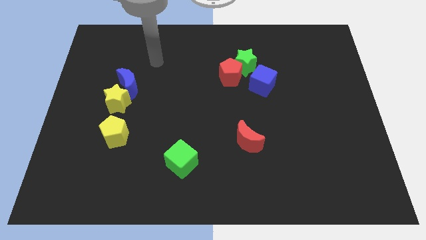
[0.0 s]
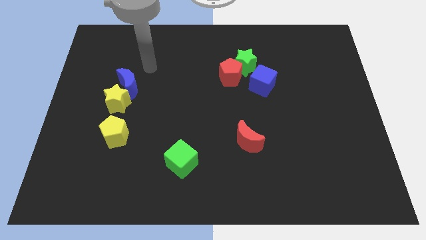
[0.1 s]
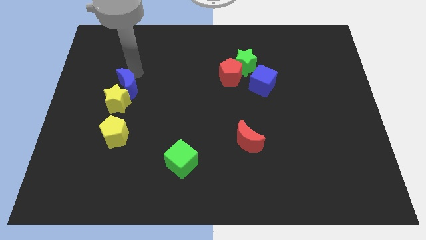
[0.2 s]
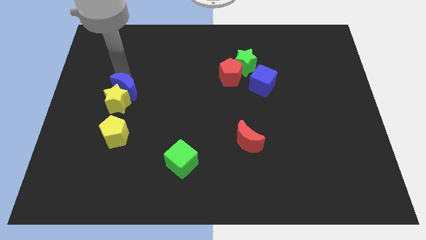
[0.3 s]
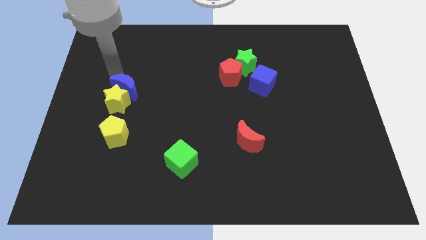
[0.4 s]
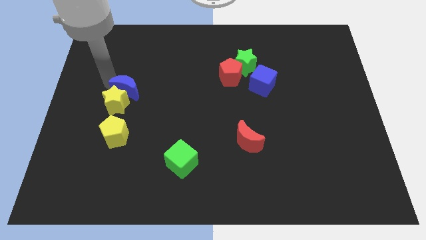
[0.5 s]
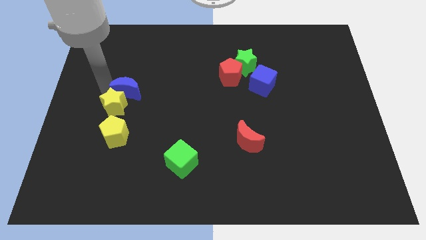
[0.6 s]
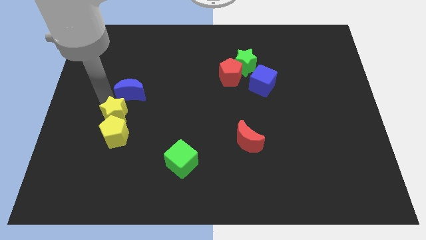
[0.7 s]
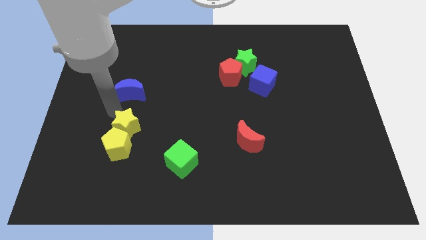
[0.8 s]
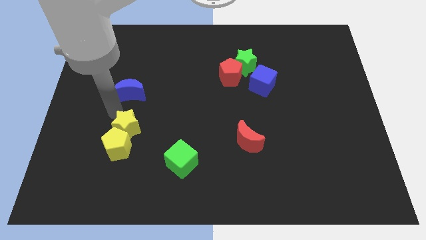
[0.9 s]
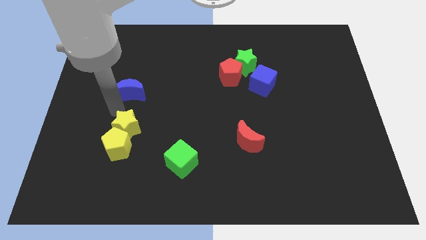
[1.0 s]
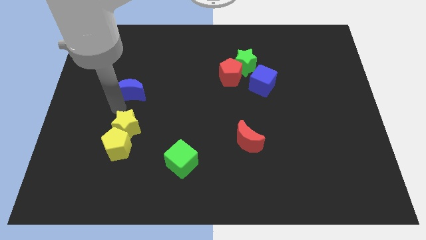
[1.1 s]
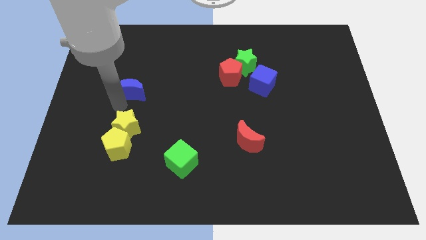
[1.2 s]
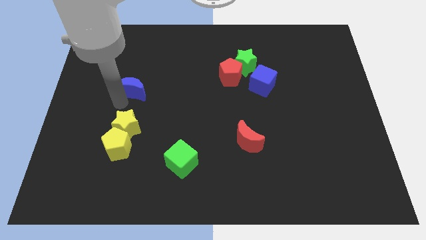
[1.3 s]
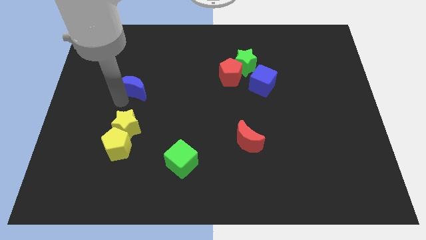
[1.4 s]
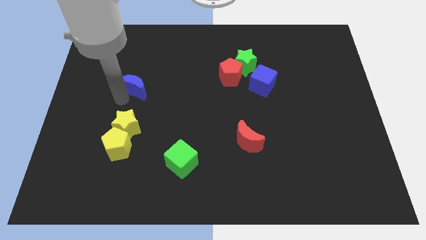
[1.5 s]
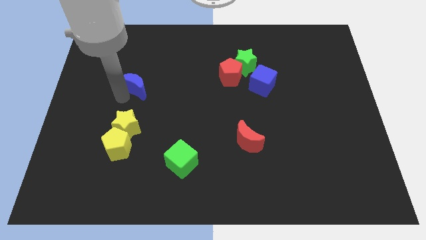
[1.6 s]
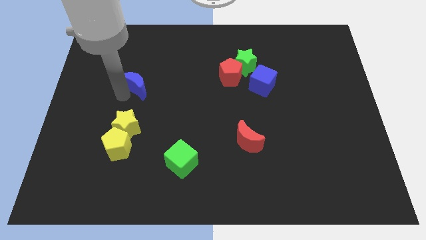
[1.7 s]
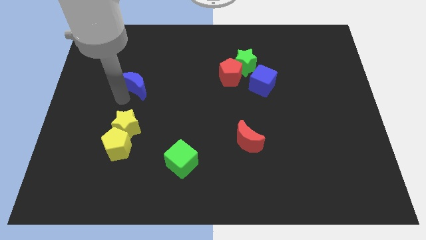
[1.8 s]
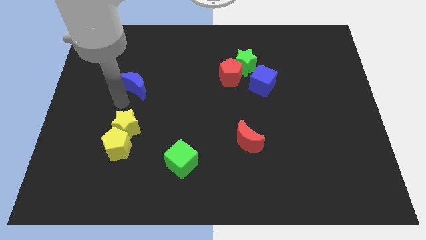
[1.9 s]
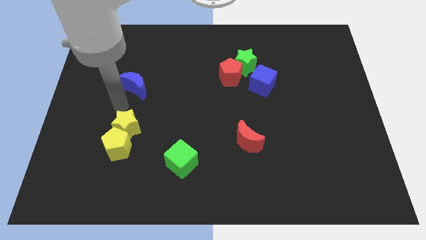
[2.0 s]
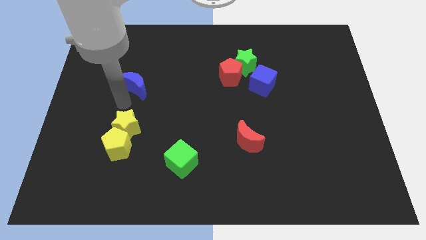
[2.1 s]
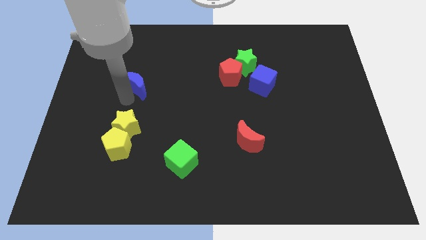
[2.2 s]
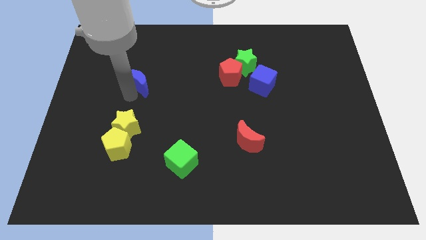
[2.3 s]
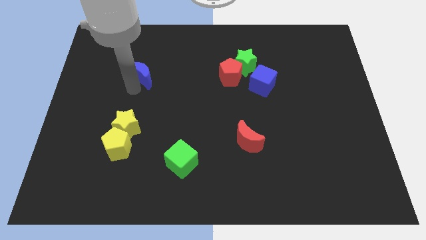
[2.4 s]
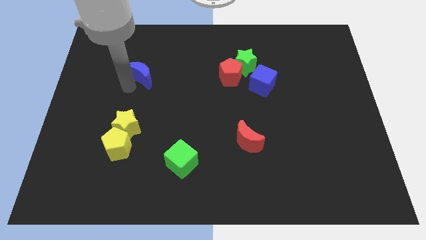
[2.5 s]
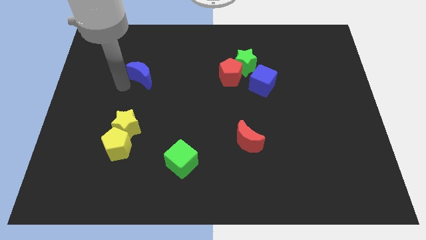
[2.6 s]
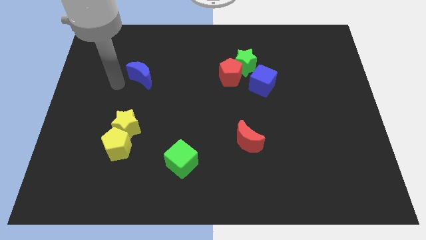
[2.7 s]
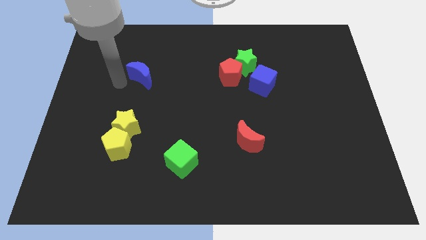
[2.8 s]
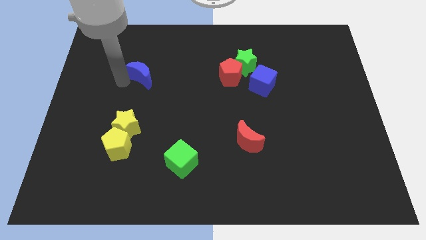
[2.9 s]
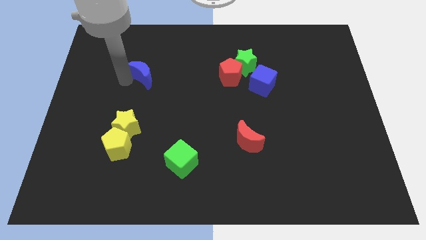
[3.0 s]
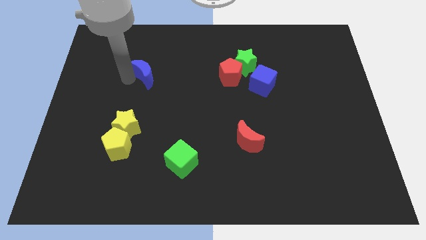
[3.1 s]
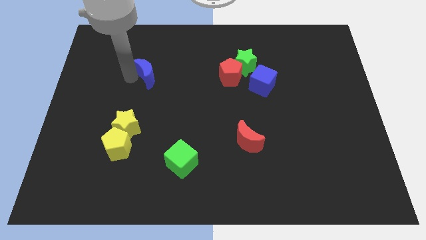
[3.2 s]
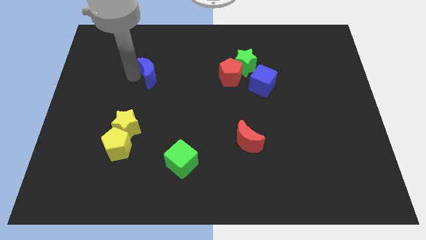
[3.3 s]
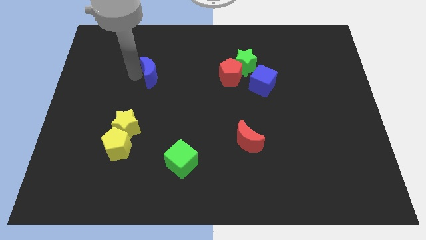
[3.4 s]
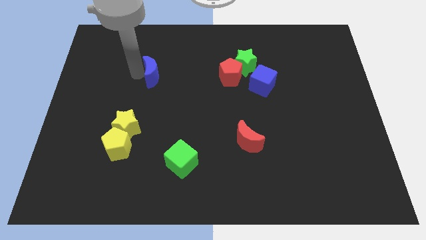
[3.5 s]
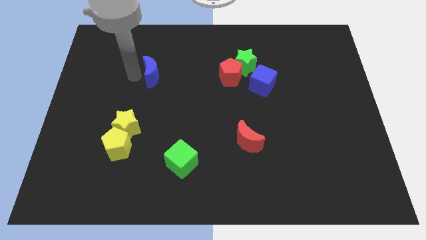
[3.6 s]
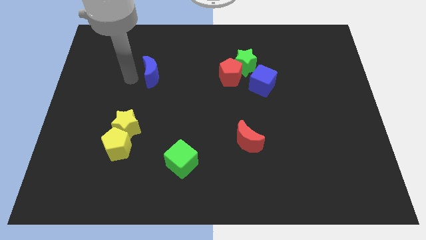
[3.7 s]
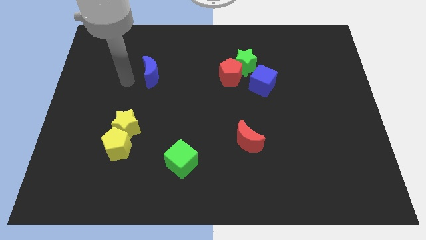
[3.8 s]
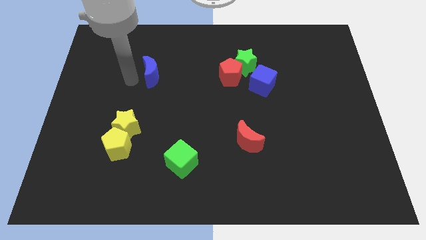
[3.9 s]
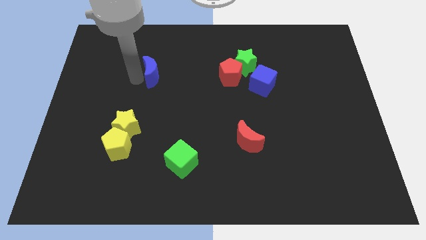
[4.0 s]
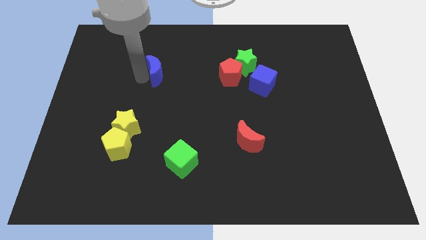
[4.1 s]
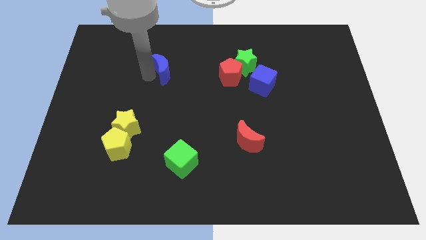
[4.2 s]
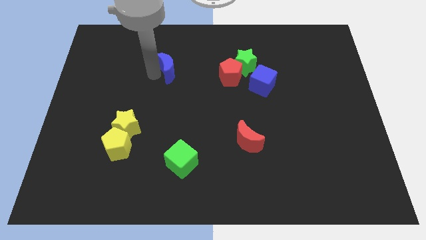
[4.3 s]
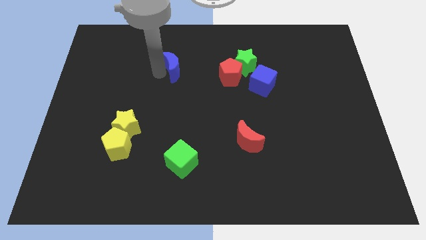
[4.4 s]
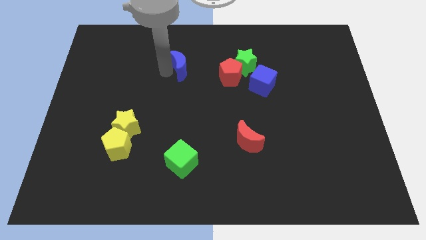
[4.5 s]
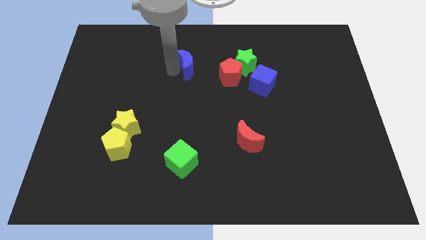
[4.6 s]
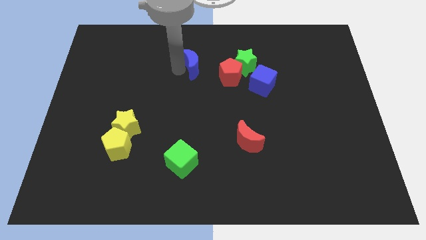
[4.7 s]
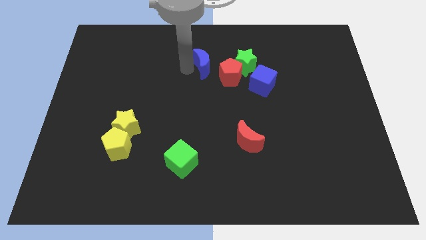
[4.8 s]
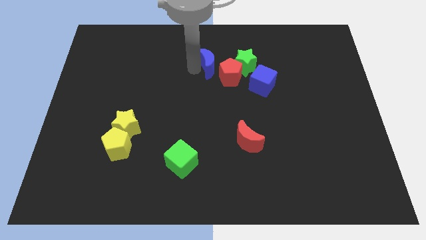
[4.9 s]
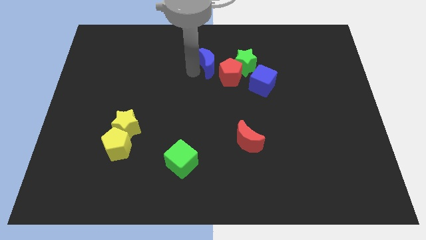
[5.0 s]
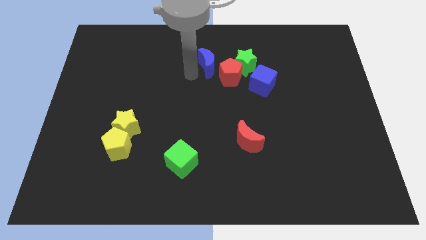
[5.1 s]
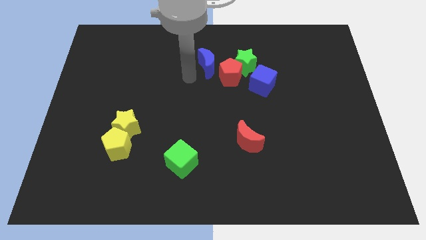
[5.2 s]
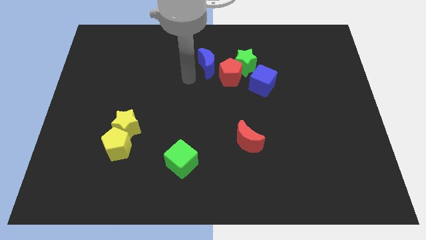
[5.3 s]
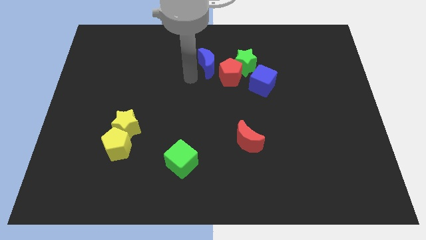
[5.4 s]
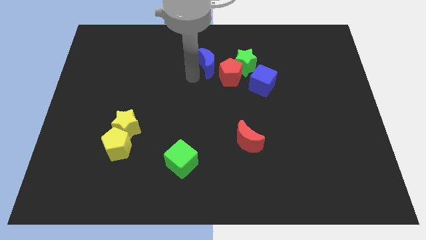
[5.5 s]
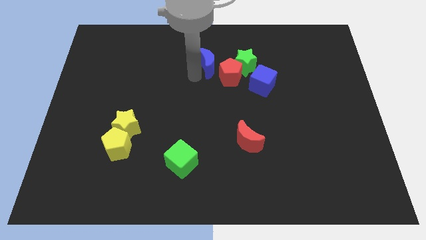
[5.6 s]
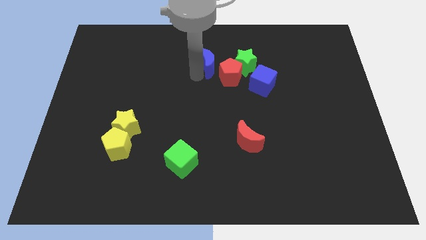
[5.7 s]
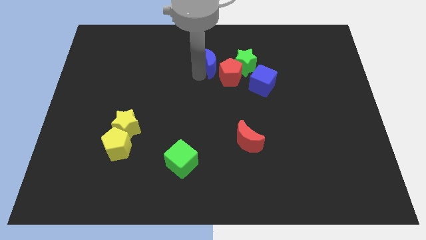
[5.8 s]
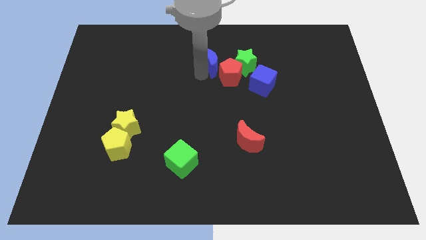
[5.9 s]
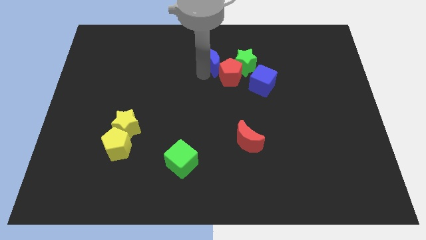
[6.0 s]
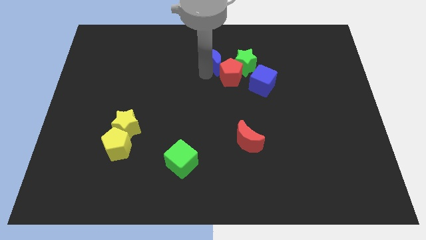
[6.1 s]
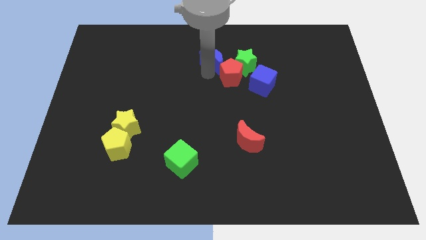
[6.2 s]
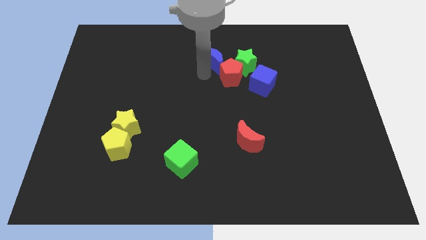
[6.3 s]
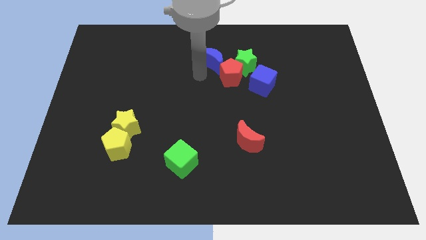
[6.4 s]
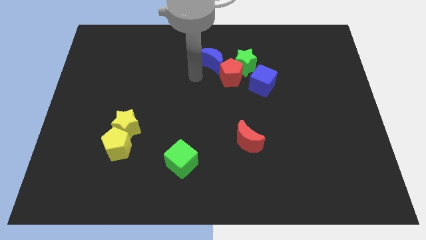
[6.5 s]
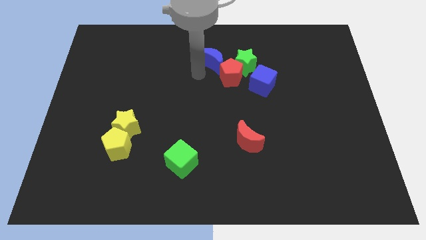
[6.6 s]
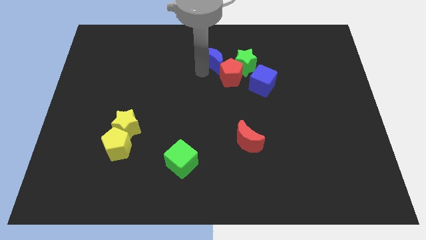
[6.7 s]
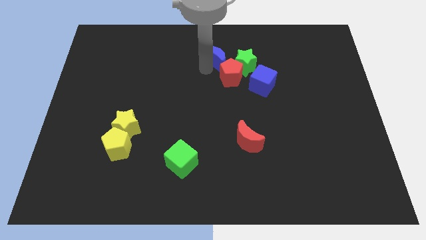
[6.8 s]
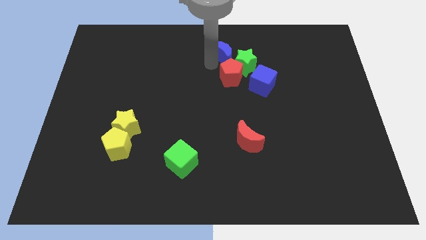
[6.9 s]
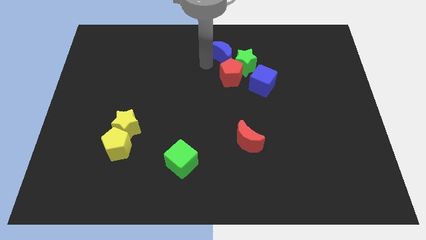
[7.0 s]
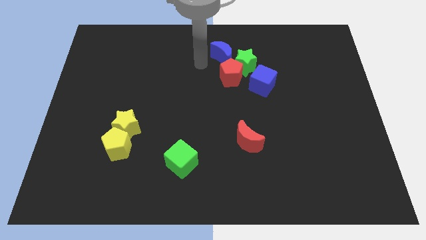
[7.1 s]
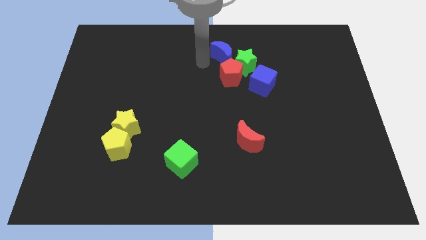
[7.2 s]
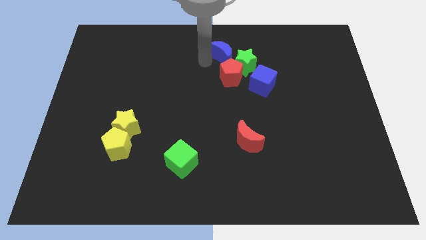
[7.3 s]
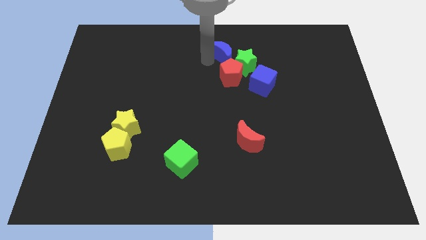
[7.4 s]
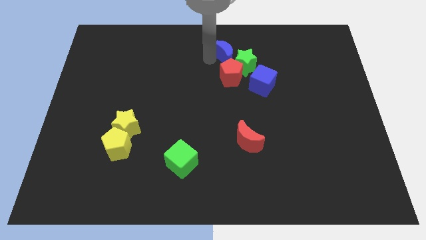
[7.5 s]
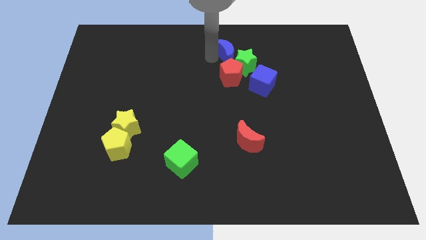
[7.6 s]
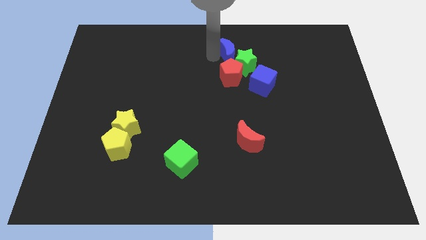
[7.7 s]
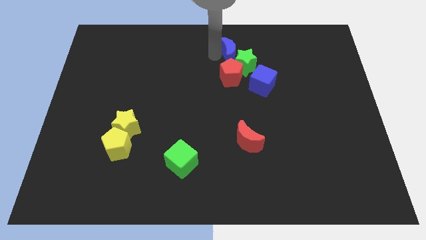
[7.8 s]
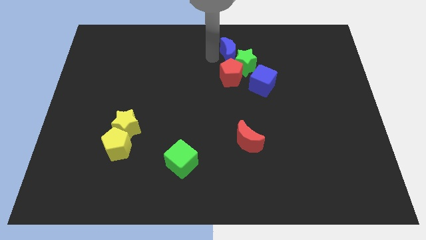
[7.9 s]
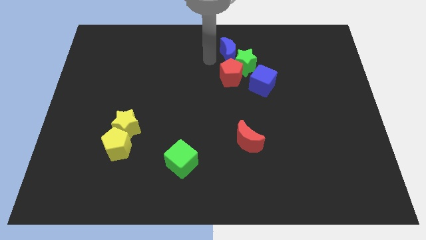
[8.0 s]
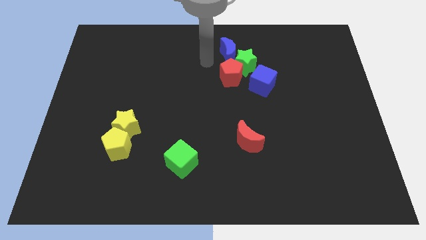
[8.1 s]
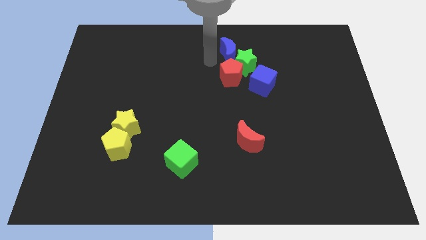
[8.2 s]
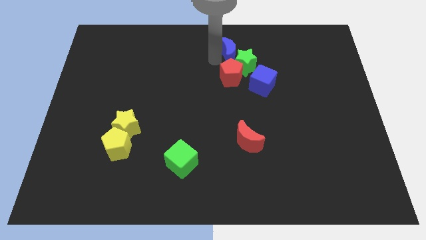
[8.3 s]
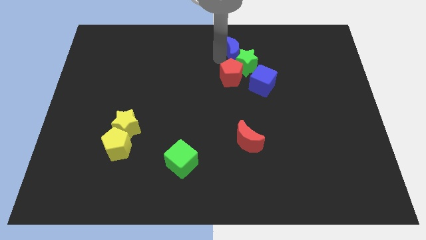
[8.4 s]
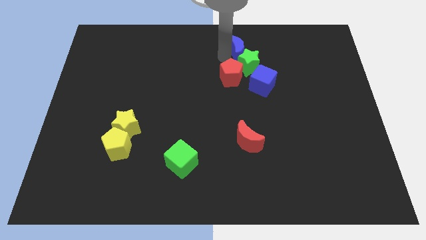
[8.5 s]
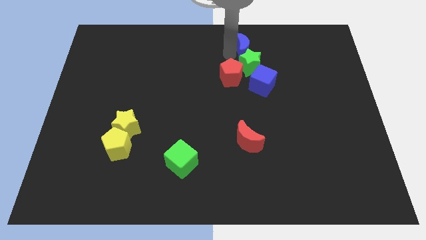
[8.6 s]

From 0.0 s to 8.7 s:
push the blue moon to the top of the blue cube
